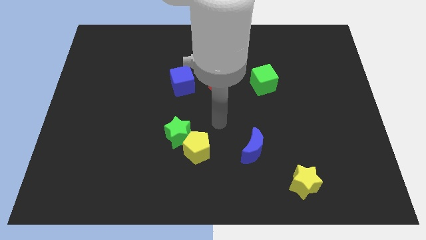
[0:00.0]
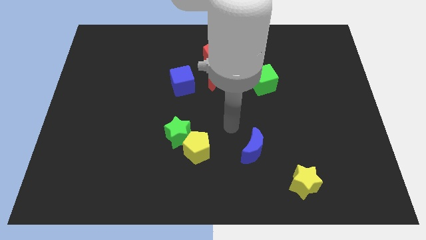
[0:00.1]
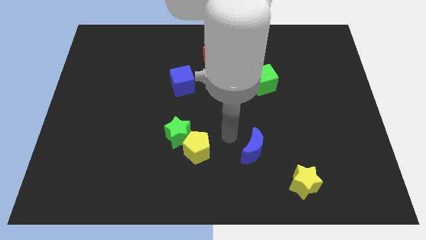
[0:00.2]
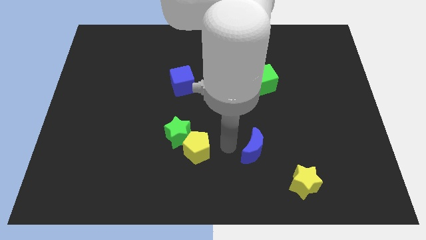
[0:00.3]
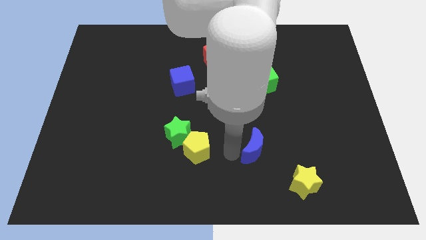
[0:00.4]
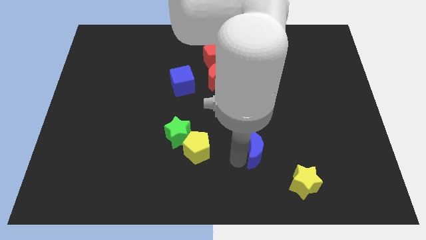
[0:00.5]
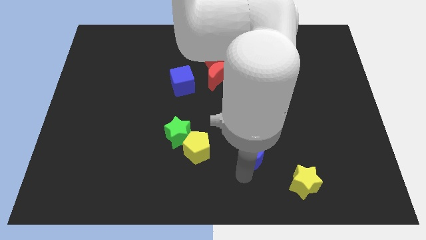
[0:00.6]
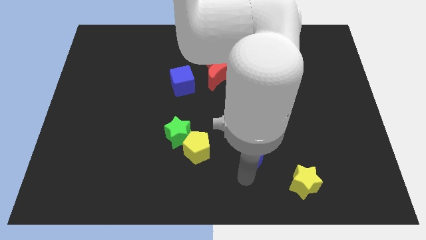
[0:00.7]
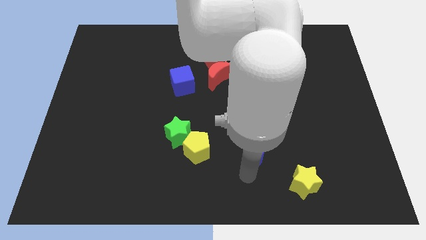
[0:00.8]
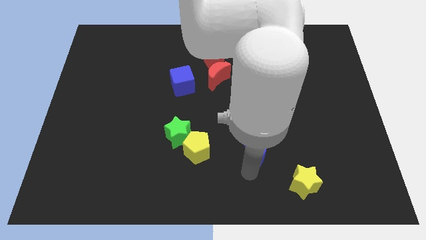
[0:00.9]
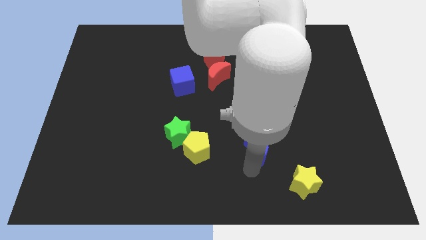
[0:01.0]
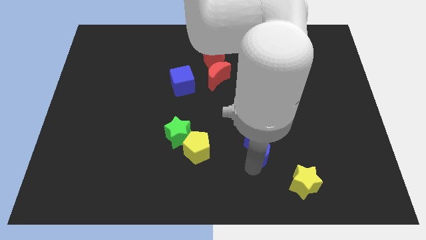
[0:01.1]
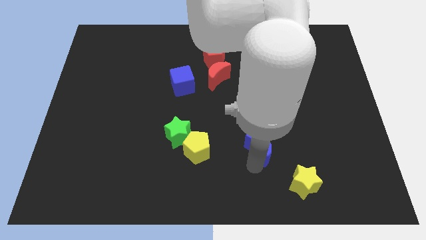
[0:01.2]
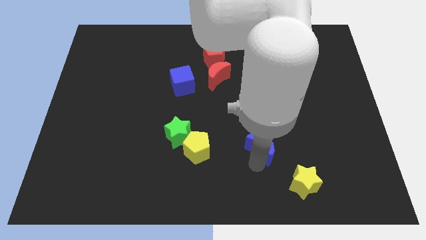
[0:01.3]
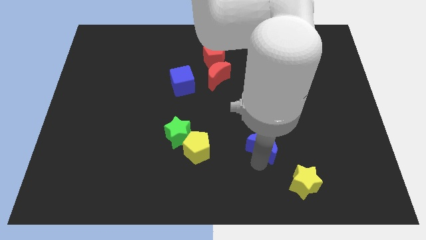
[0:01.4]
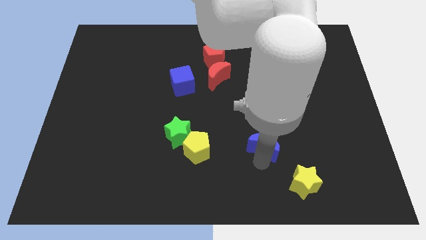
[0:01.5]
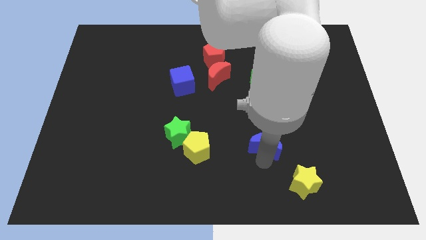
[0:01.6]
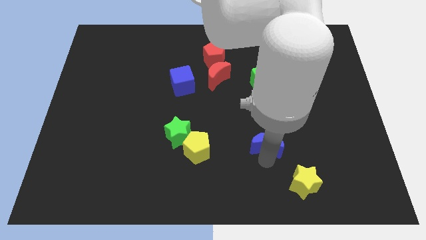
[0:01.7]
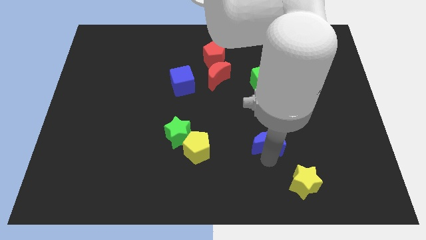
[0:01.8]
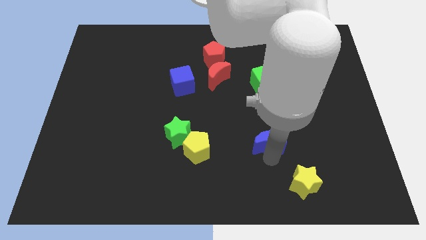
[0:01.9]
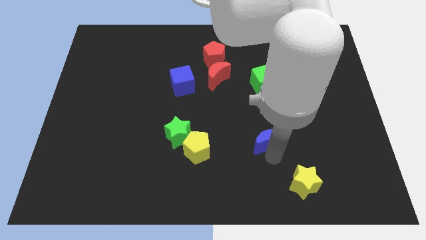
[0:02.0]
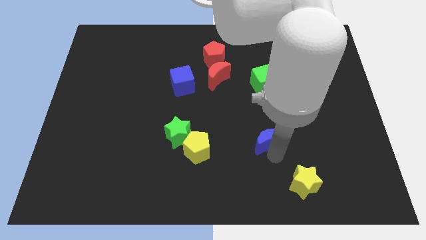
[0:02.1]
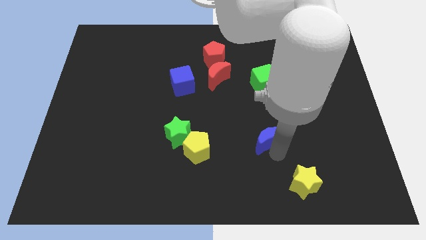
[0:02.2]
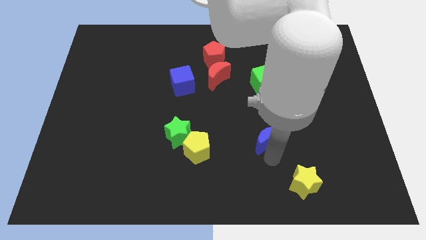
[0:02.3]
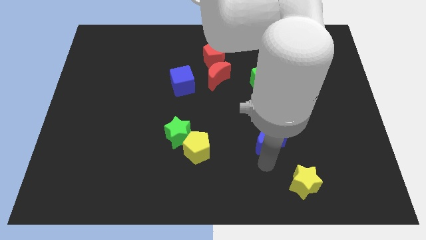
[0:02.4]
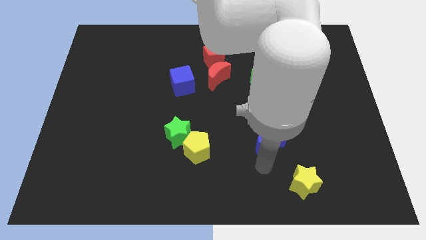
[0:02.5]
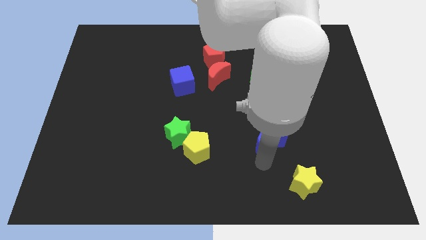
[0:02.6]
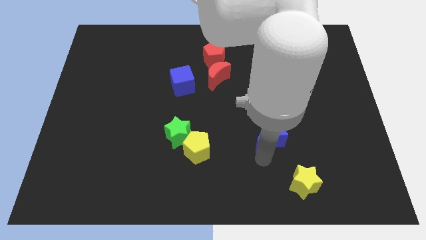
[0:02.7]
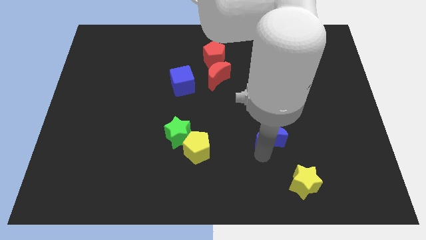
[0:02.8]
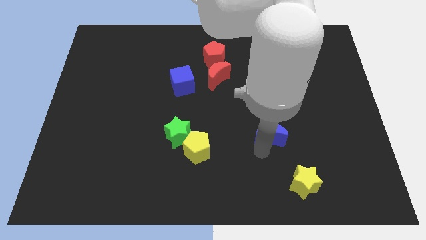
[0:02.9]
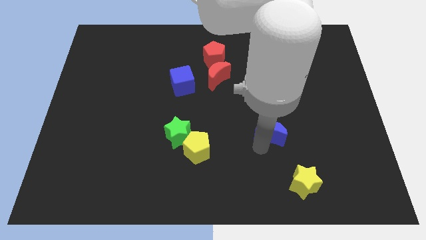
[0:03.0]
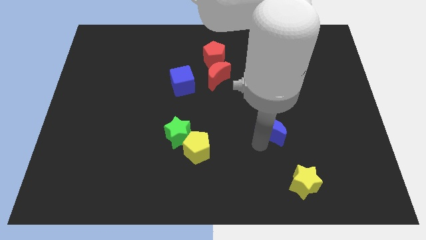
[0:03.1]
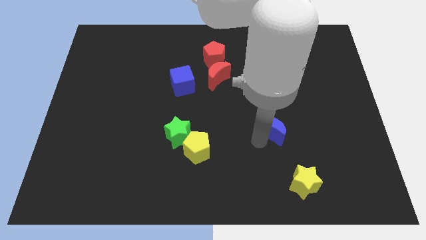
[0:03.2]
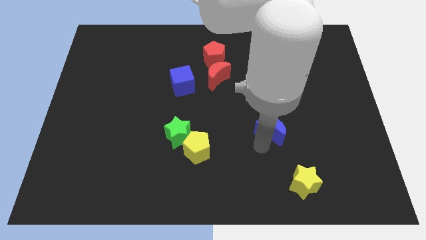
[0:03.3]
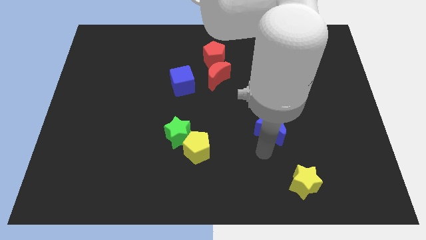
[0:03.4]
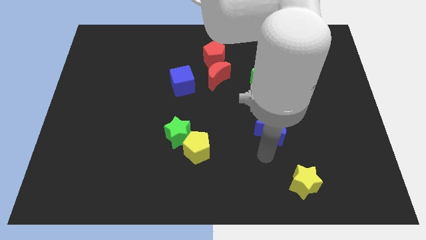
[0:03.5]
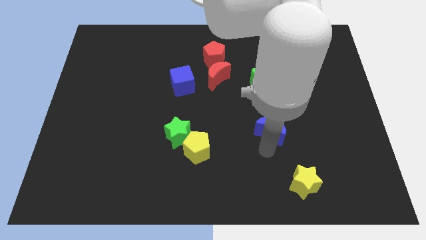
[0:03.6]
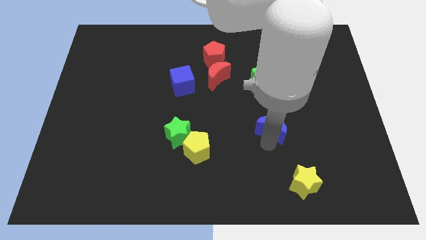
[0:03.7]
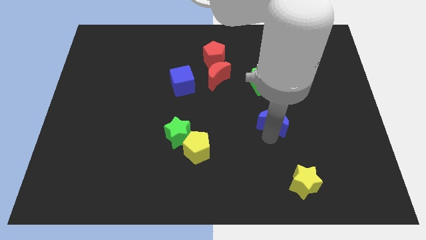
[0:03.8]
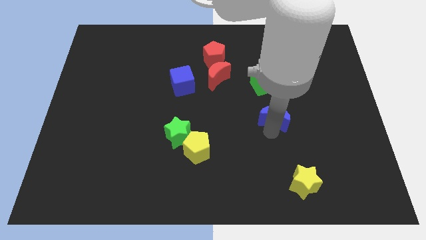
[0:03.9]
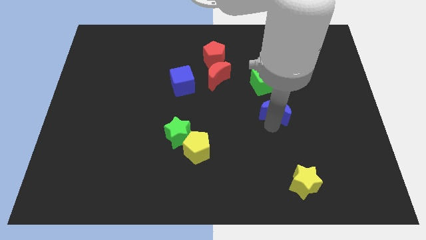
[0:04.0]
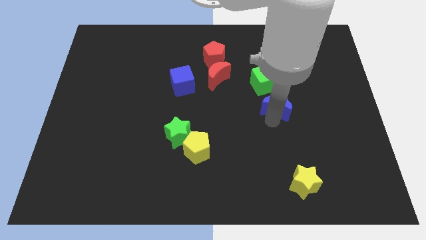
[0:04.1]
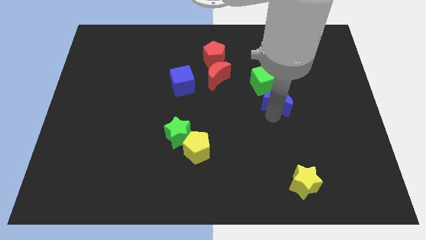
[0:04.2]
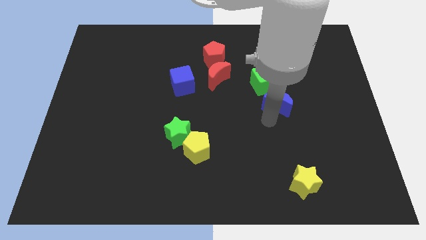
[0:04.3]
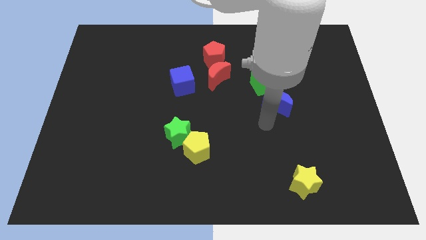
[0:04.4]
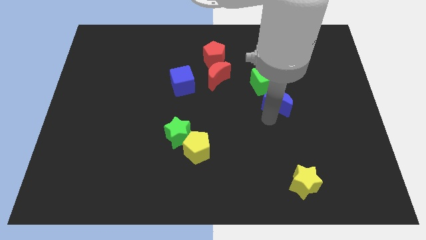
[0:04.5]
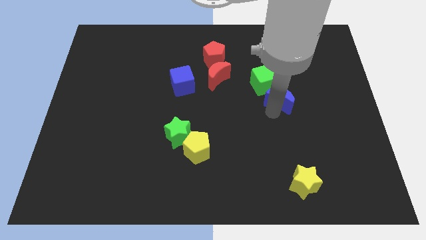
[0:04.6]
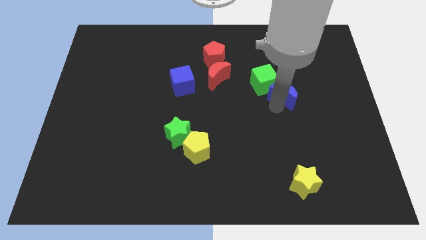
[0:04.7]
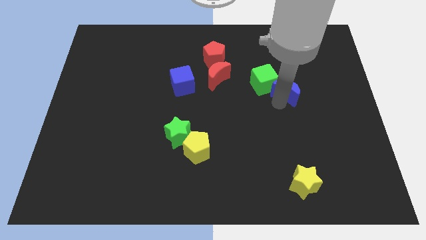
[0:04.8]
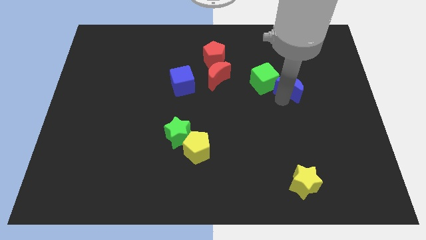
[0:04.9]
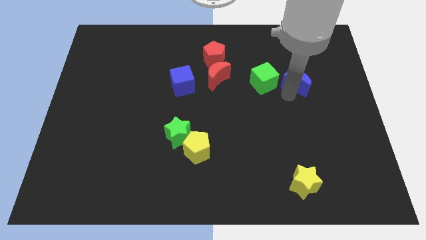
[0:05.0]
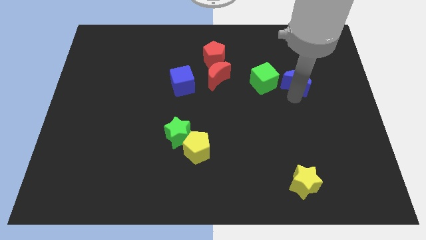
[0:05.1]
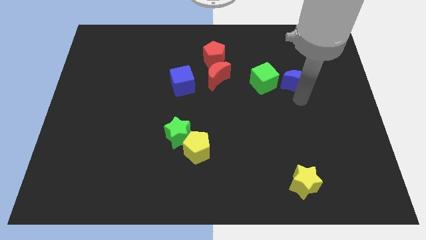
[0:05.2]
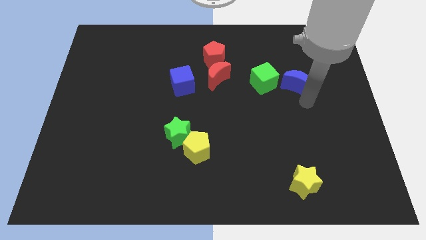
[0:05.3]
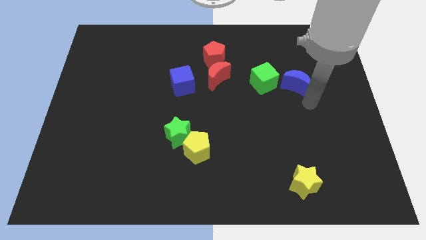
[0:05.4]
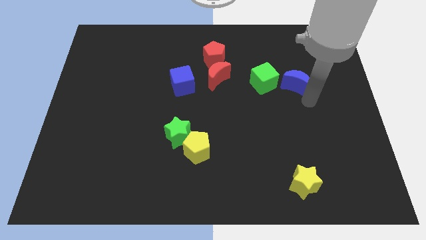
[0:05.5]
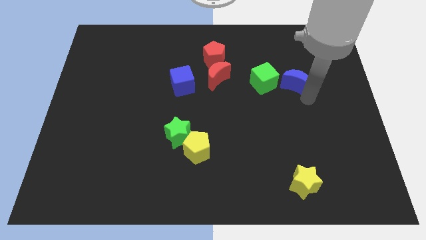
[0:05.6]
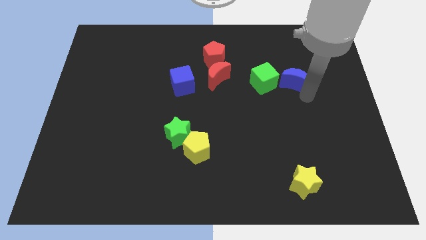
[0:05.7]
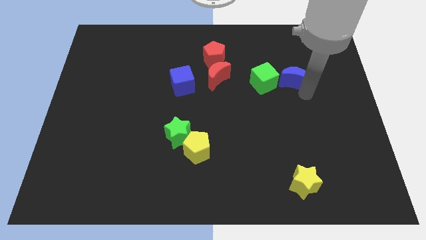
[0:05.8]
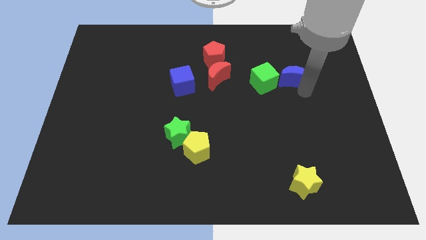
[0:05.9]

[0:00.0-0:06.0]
move the blue moon diagonally up and to the right of the green cube

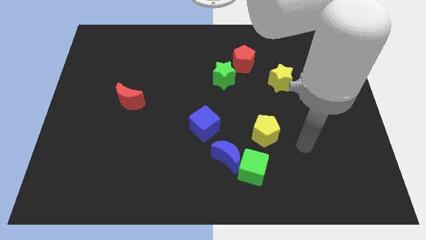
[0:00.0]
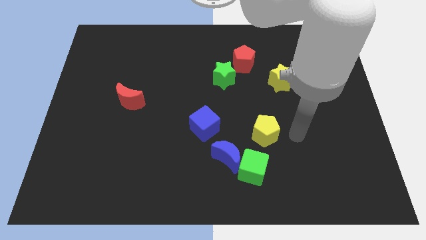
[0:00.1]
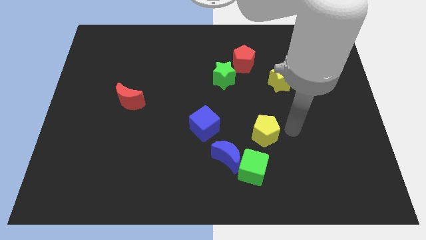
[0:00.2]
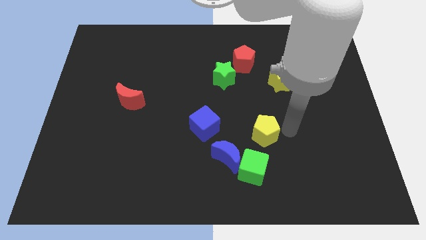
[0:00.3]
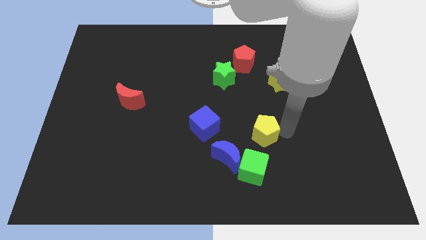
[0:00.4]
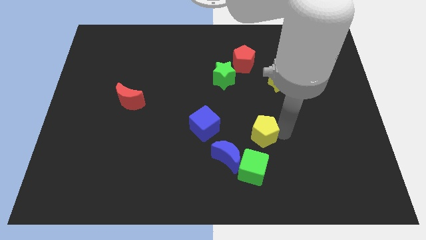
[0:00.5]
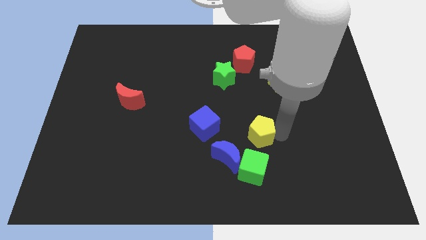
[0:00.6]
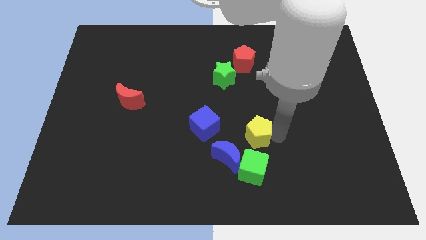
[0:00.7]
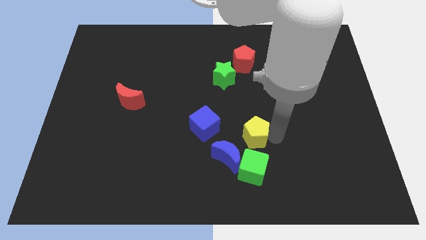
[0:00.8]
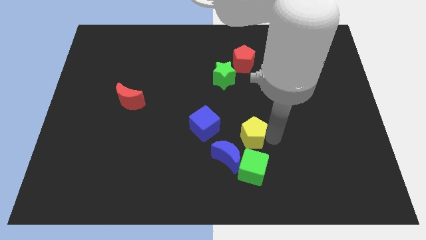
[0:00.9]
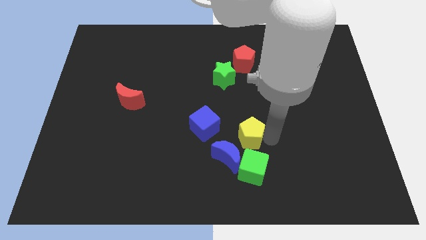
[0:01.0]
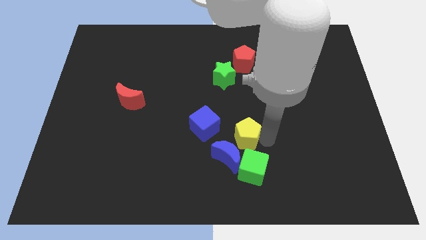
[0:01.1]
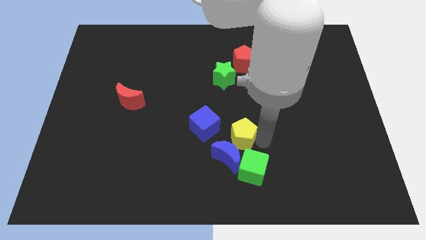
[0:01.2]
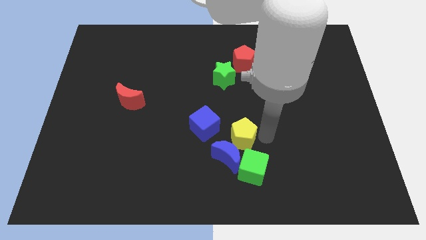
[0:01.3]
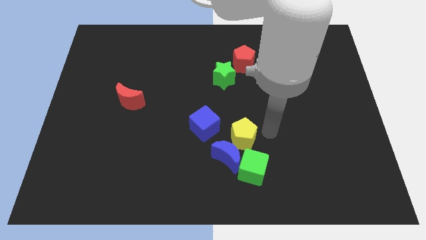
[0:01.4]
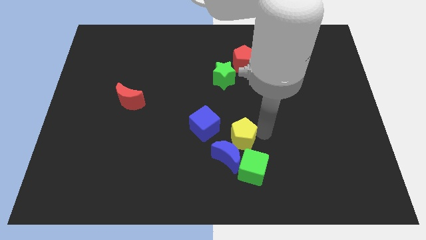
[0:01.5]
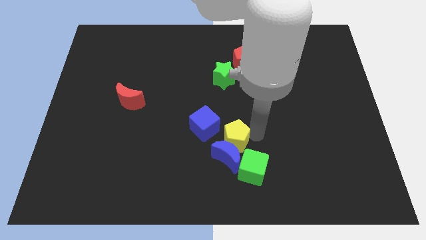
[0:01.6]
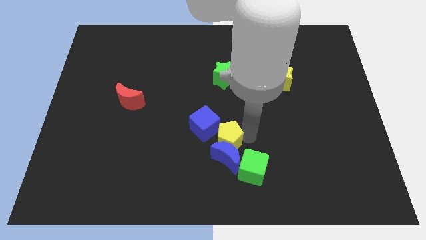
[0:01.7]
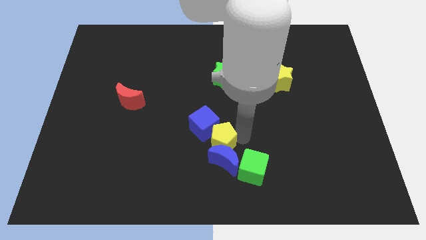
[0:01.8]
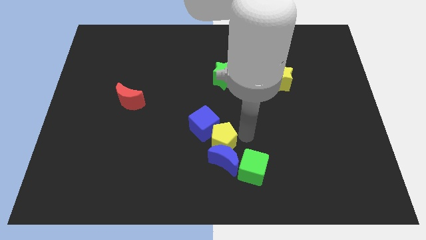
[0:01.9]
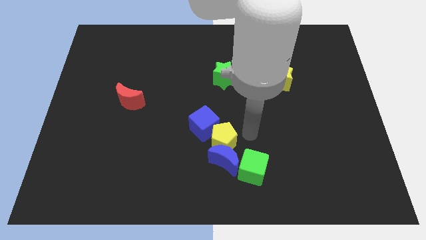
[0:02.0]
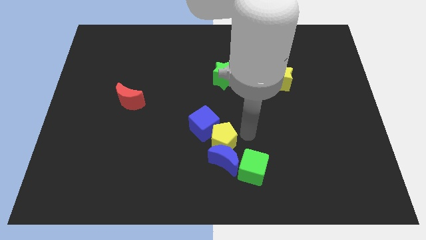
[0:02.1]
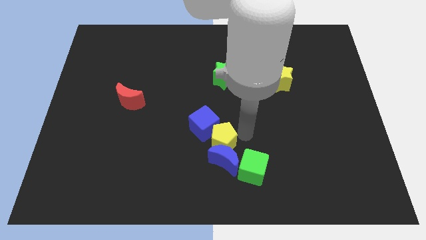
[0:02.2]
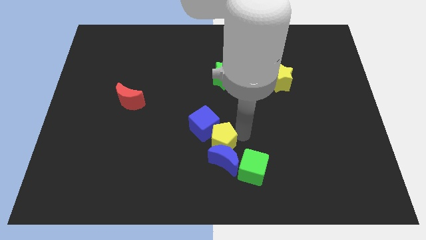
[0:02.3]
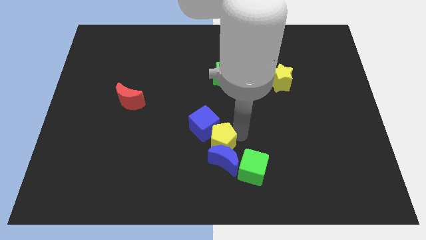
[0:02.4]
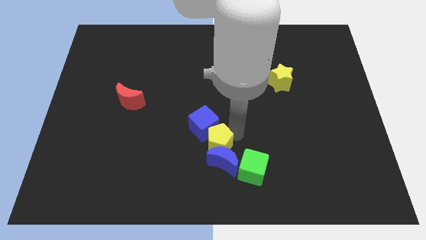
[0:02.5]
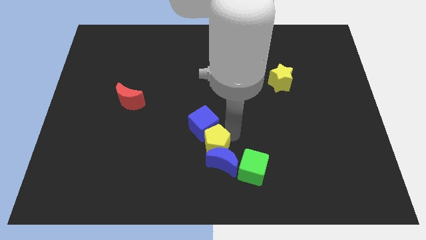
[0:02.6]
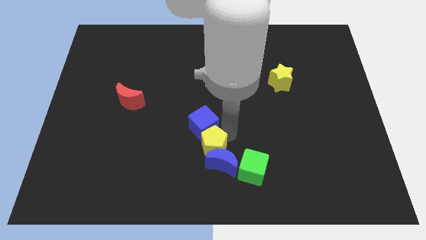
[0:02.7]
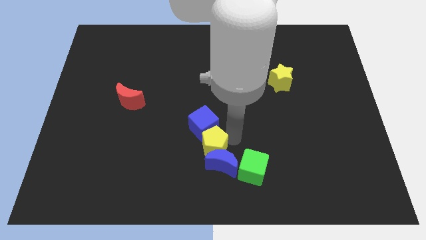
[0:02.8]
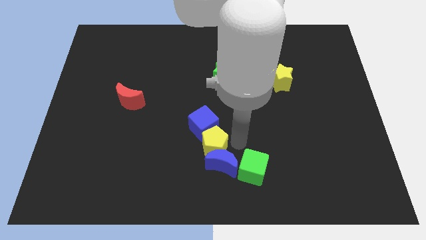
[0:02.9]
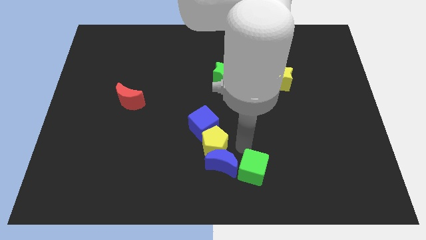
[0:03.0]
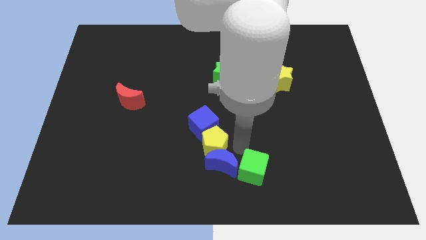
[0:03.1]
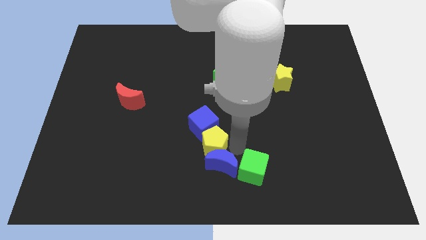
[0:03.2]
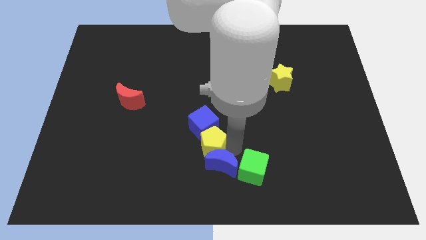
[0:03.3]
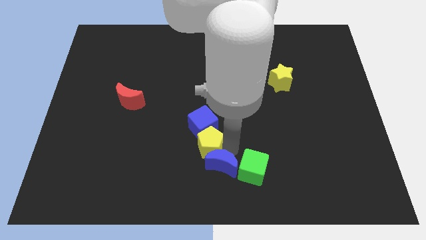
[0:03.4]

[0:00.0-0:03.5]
put the yellow pentagon left of the blue moon
